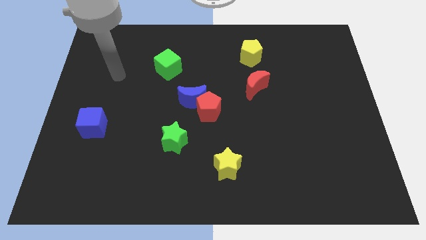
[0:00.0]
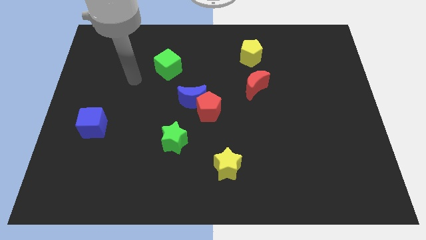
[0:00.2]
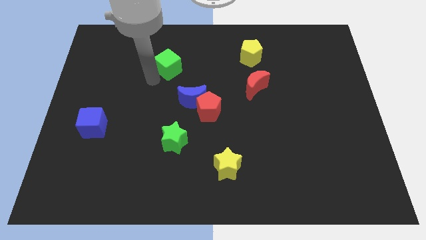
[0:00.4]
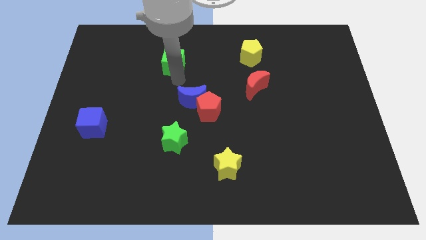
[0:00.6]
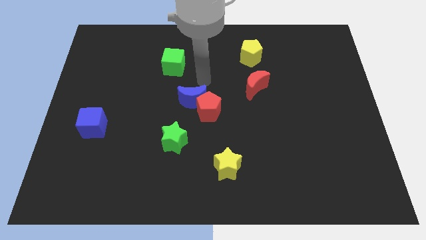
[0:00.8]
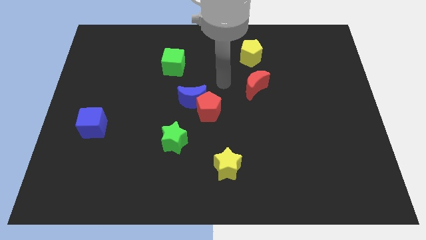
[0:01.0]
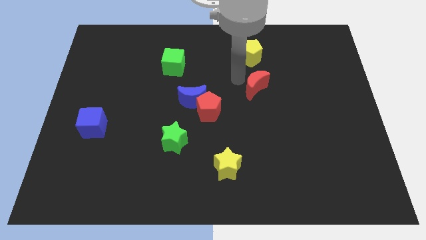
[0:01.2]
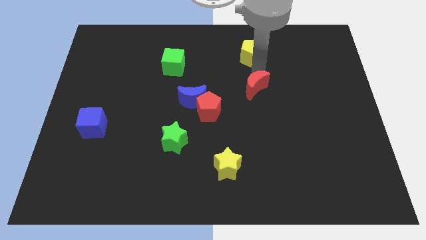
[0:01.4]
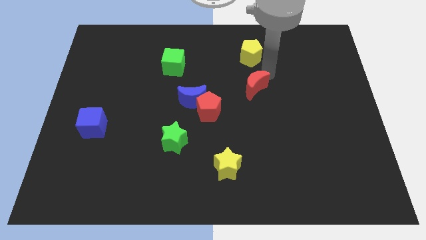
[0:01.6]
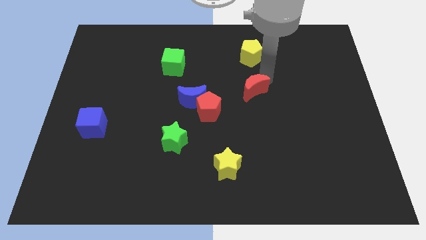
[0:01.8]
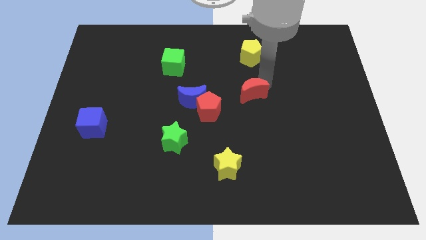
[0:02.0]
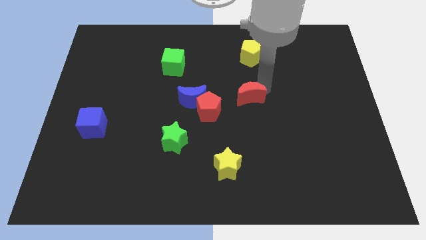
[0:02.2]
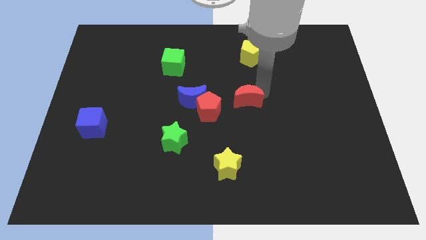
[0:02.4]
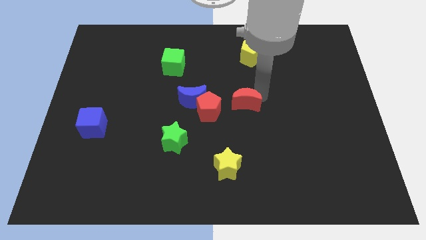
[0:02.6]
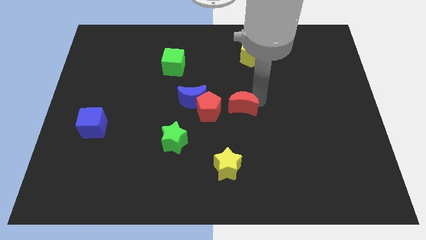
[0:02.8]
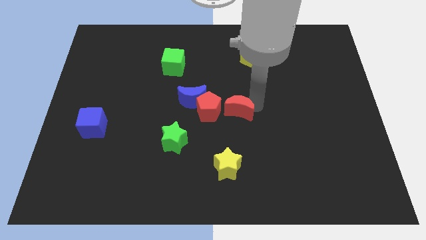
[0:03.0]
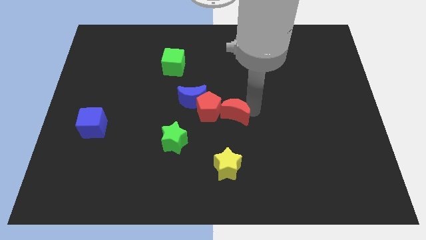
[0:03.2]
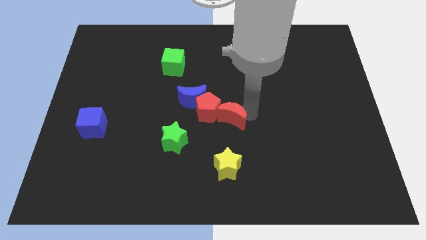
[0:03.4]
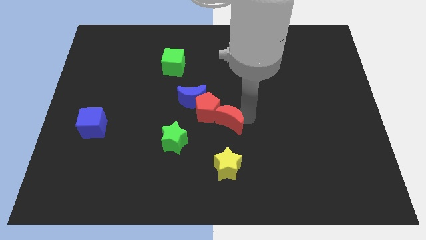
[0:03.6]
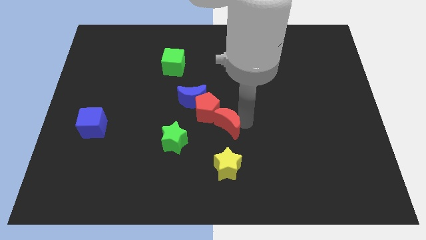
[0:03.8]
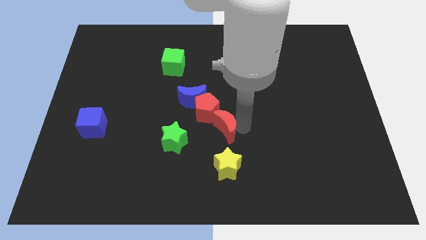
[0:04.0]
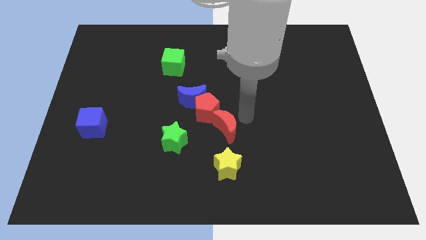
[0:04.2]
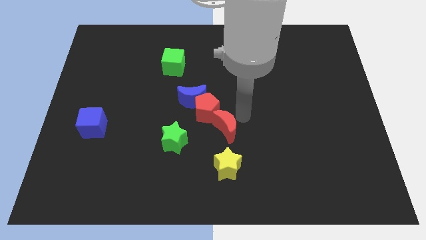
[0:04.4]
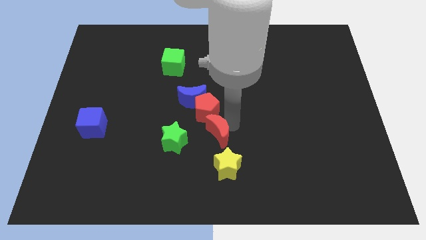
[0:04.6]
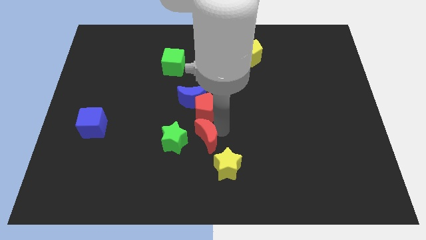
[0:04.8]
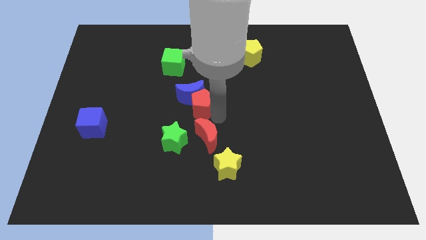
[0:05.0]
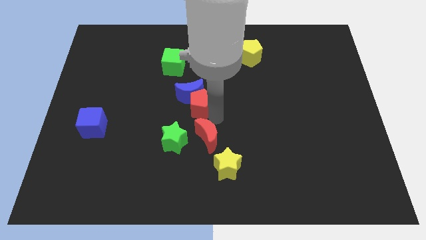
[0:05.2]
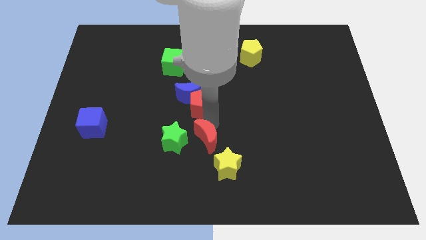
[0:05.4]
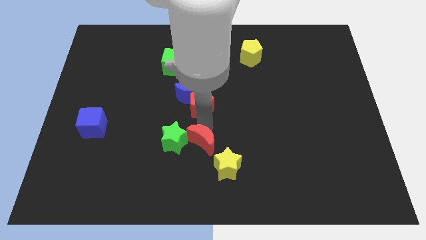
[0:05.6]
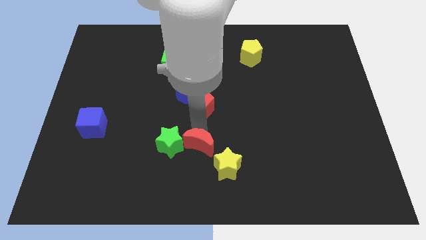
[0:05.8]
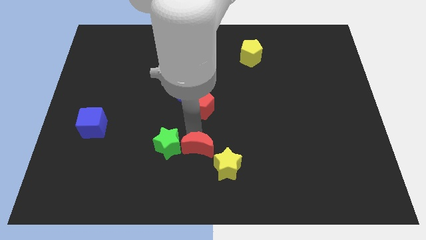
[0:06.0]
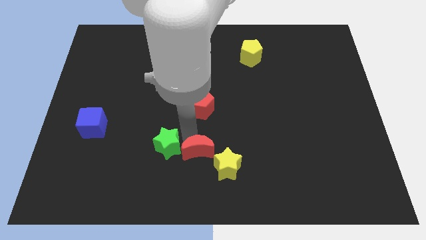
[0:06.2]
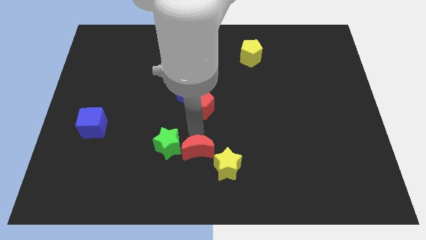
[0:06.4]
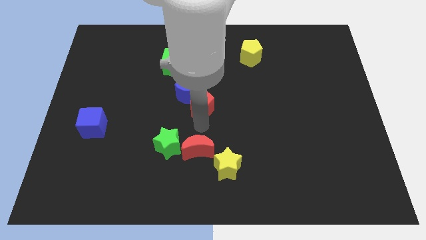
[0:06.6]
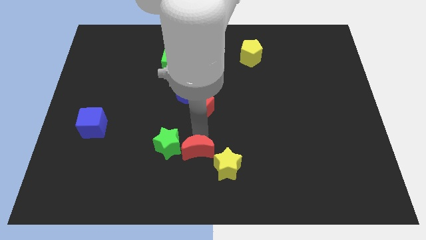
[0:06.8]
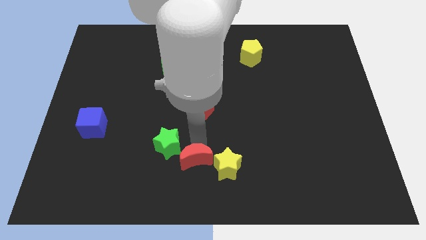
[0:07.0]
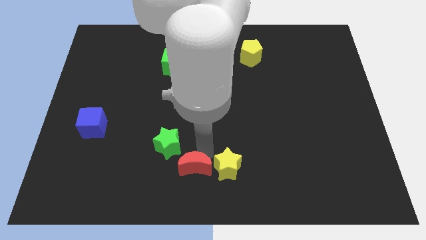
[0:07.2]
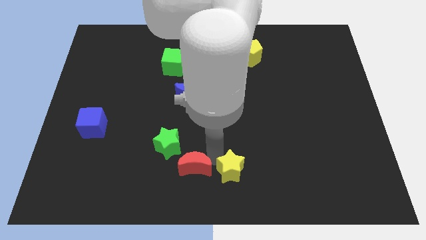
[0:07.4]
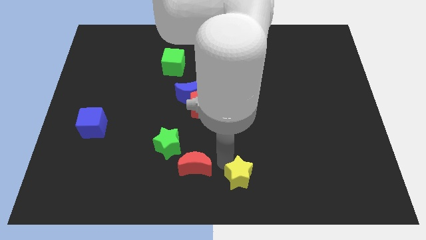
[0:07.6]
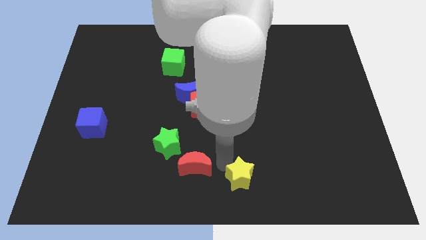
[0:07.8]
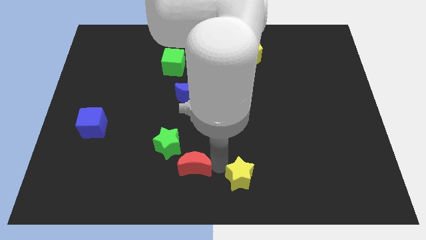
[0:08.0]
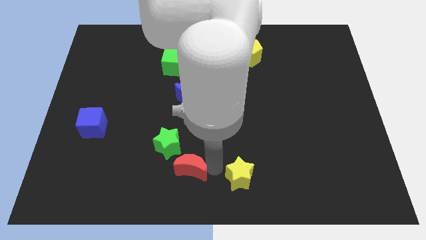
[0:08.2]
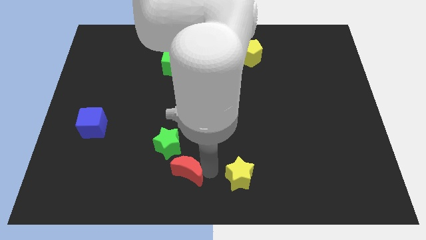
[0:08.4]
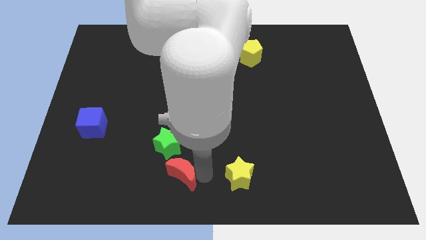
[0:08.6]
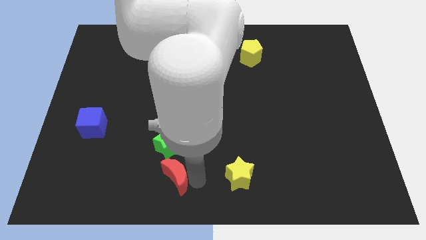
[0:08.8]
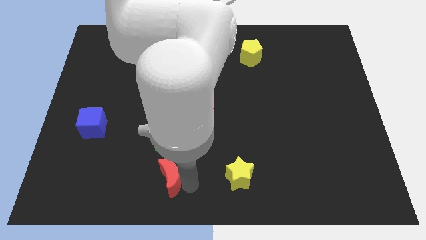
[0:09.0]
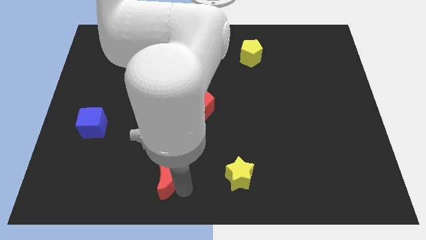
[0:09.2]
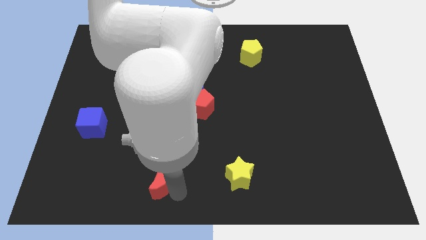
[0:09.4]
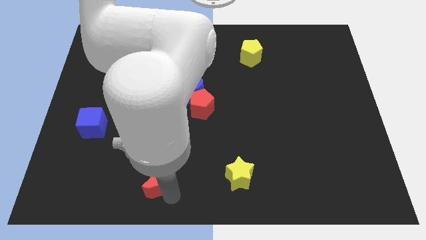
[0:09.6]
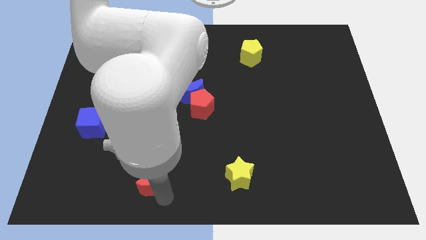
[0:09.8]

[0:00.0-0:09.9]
move the red moon to the bottom left of the green star

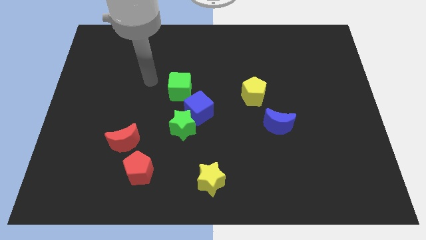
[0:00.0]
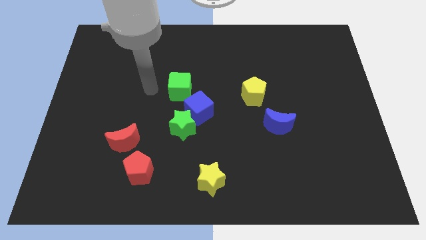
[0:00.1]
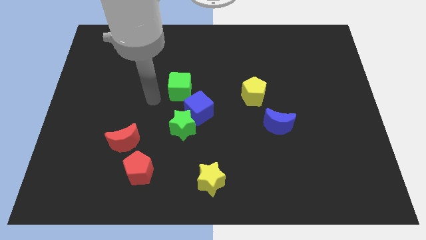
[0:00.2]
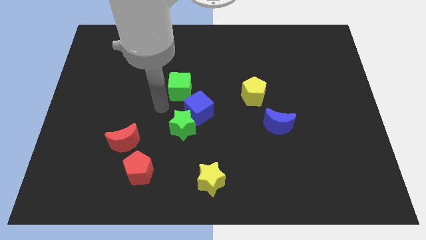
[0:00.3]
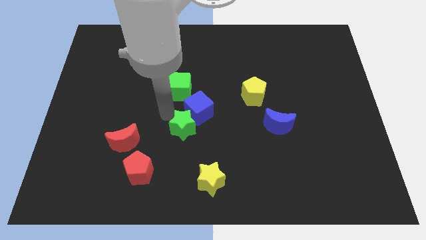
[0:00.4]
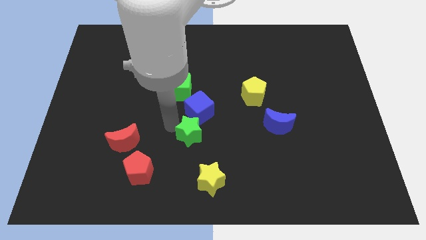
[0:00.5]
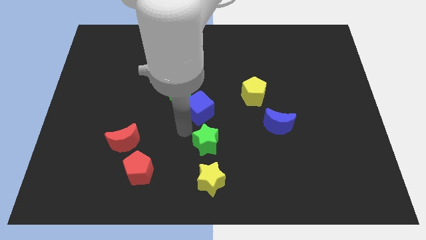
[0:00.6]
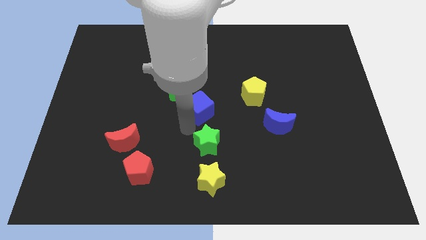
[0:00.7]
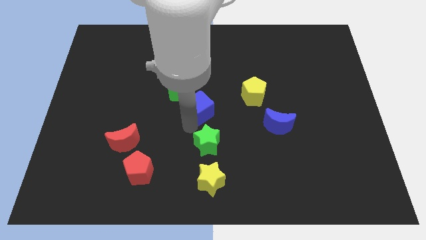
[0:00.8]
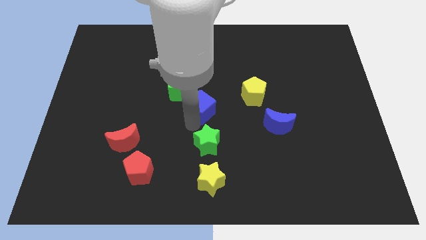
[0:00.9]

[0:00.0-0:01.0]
push the blue cube to the left of the yellow pentagon
